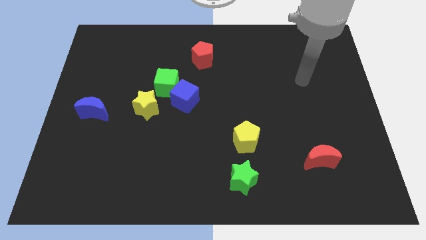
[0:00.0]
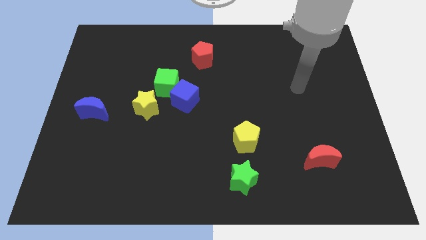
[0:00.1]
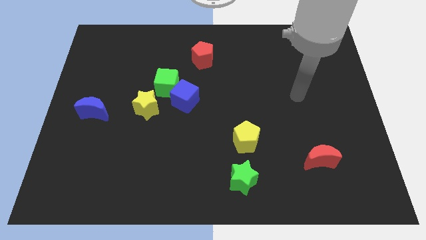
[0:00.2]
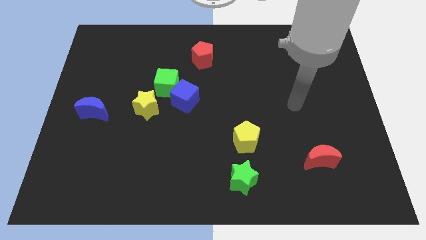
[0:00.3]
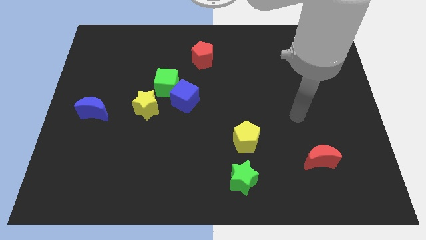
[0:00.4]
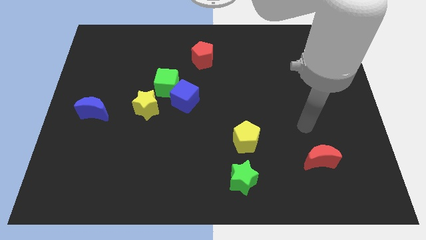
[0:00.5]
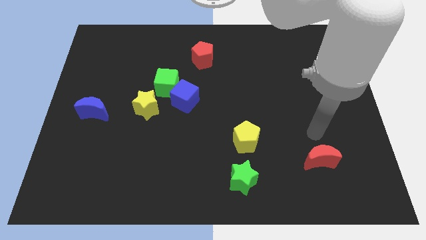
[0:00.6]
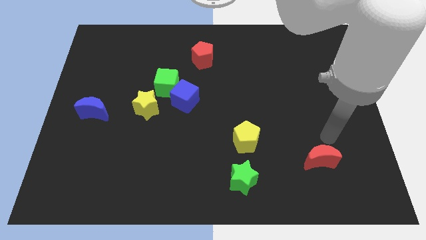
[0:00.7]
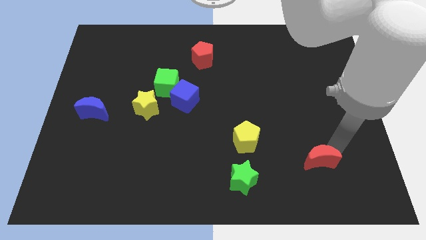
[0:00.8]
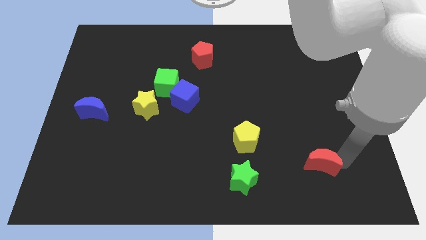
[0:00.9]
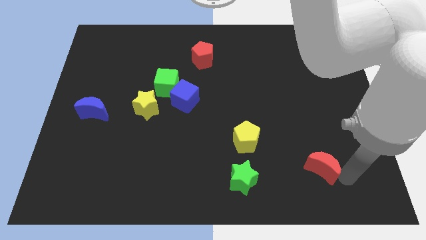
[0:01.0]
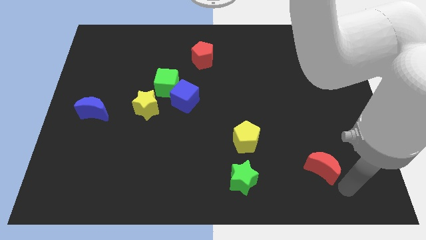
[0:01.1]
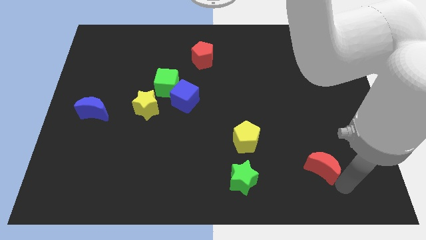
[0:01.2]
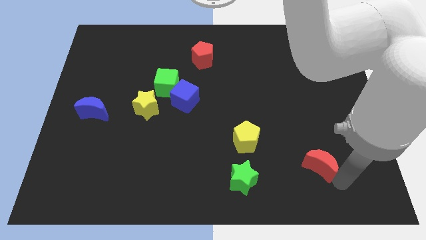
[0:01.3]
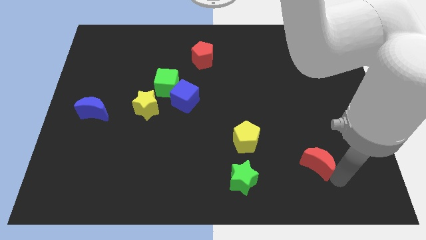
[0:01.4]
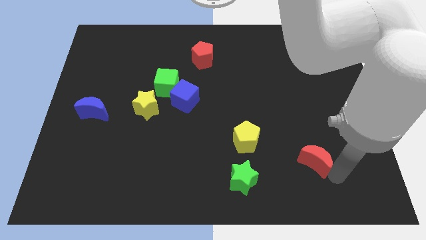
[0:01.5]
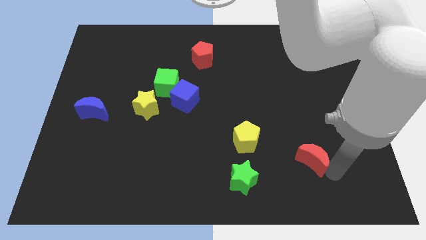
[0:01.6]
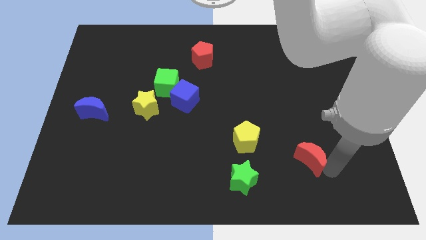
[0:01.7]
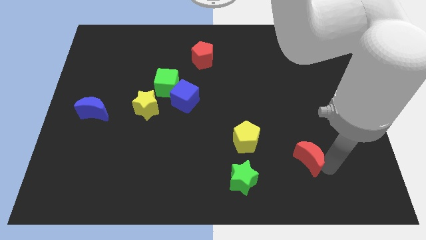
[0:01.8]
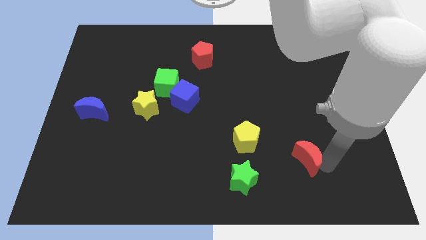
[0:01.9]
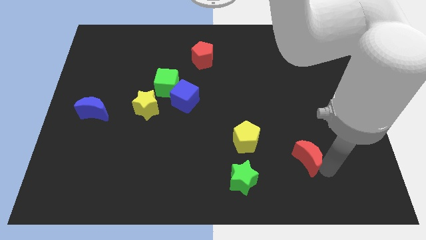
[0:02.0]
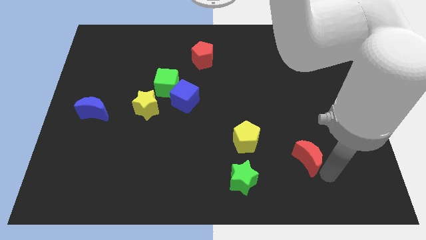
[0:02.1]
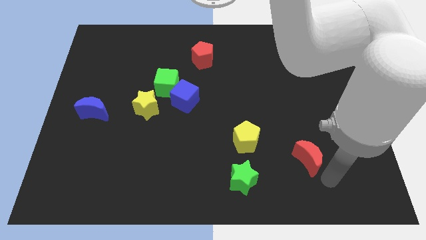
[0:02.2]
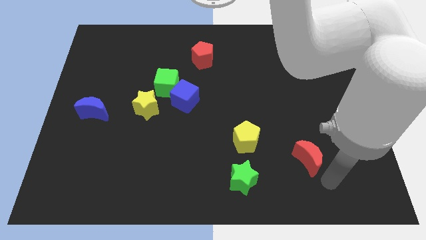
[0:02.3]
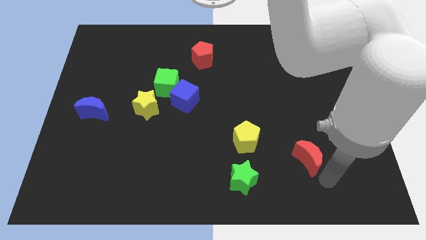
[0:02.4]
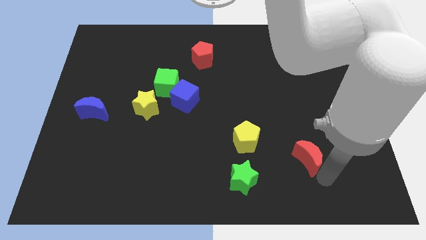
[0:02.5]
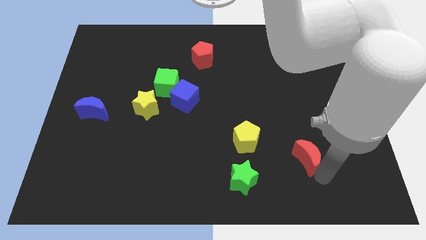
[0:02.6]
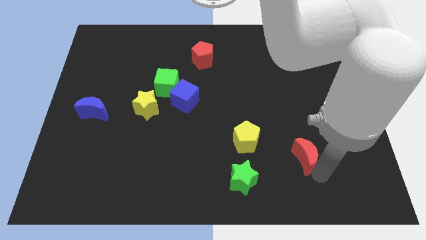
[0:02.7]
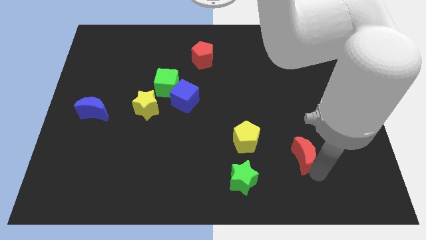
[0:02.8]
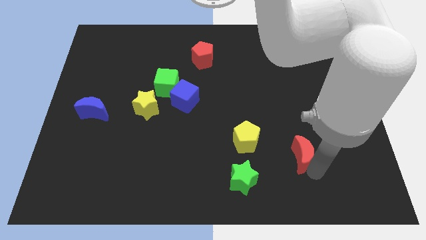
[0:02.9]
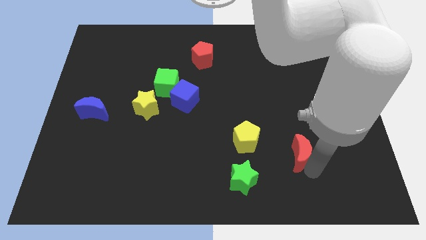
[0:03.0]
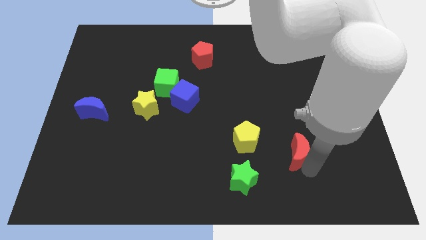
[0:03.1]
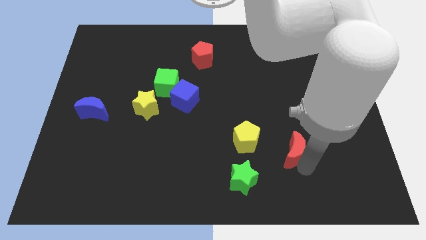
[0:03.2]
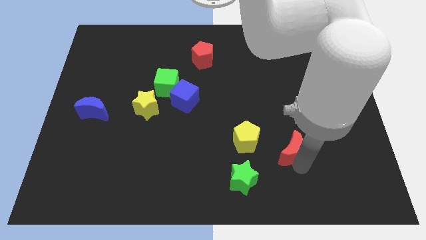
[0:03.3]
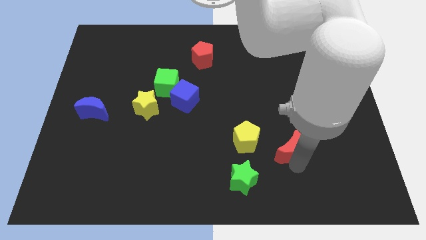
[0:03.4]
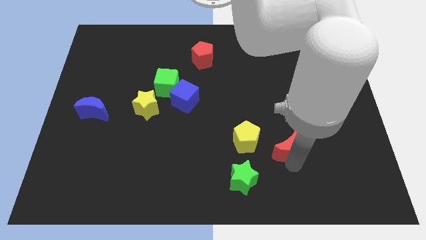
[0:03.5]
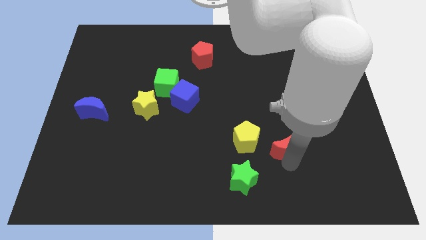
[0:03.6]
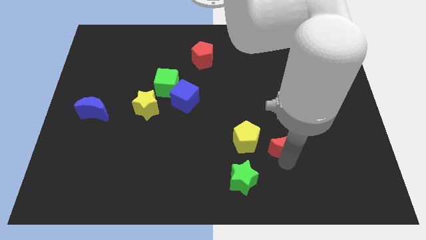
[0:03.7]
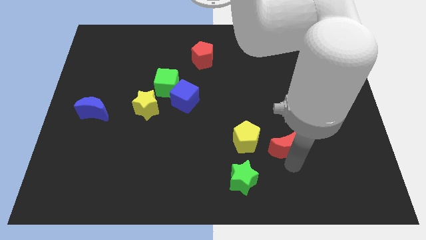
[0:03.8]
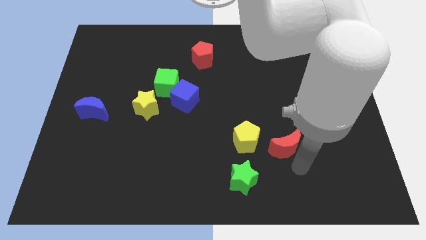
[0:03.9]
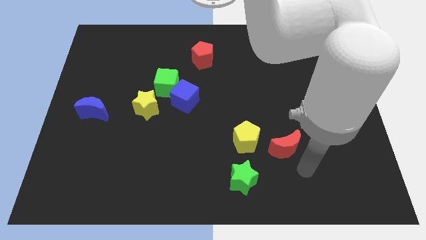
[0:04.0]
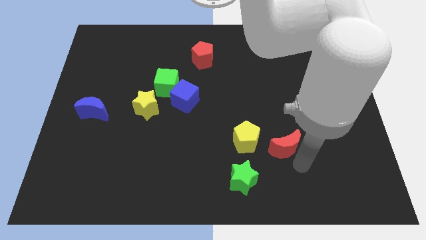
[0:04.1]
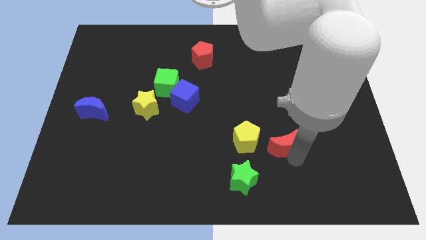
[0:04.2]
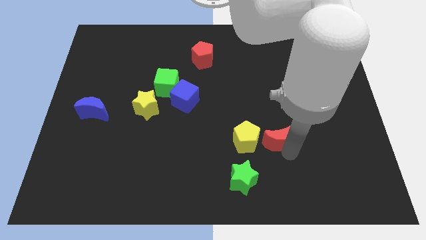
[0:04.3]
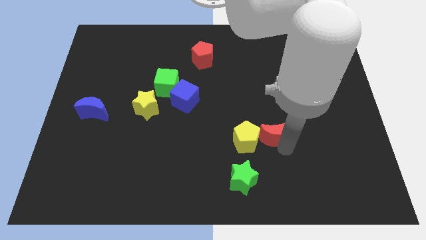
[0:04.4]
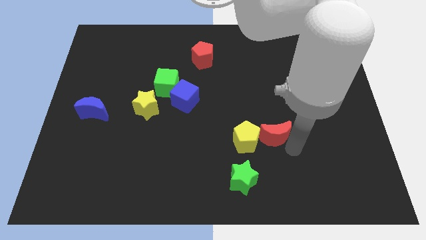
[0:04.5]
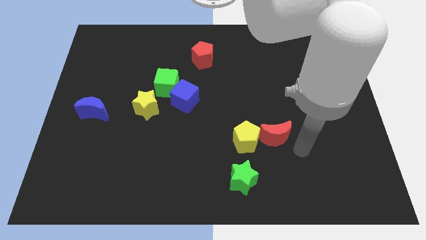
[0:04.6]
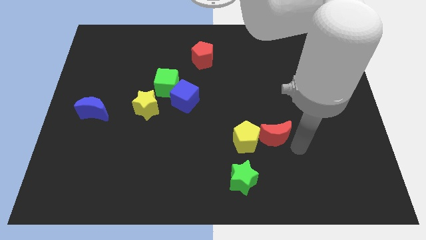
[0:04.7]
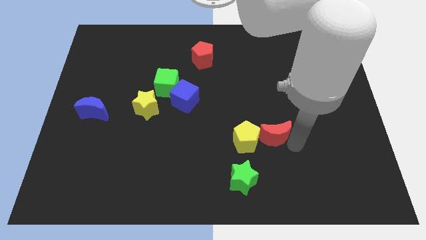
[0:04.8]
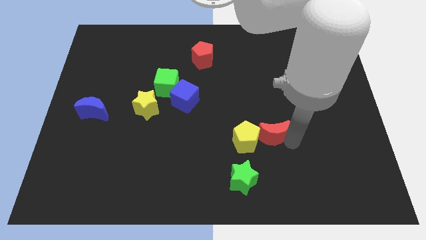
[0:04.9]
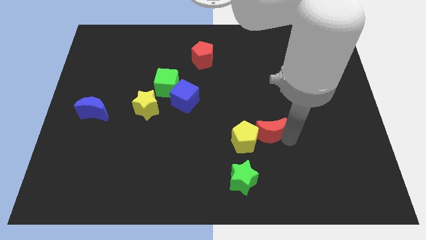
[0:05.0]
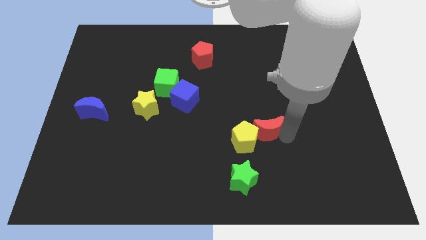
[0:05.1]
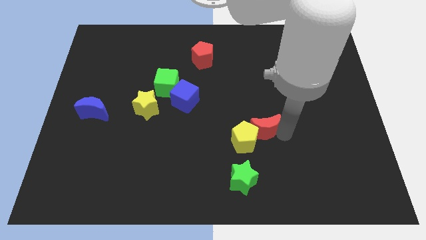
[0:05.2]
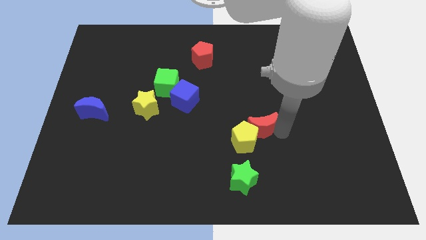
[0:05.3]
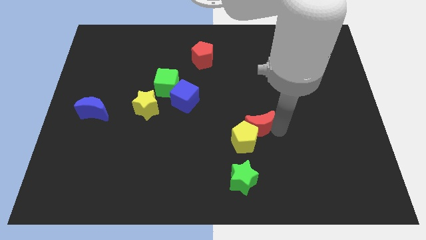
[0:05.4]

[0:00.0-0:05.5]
slide the red moon above the green star

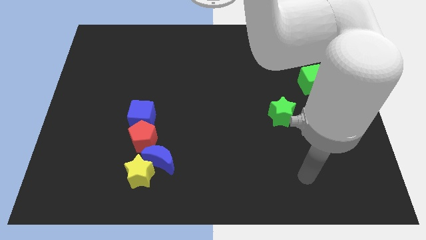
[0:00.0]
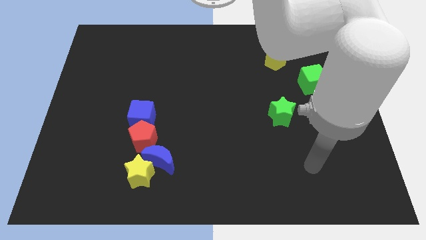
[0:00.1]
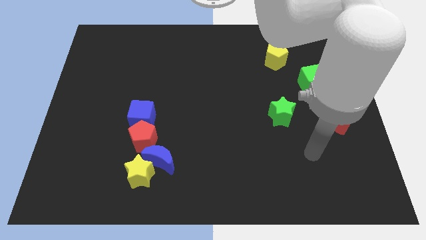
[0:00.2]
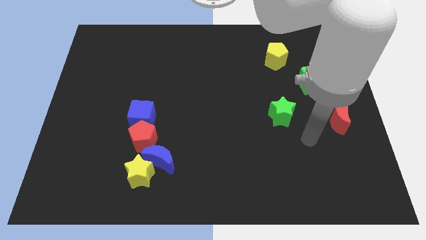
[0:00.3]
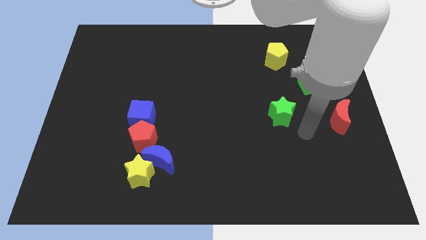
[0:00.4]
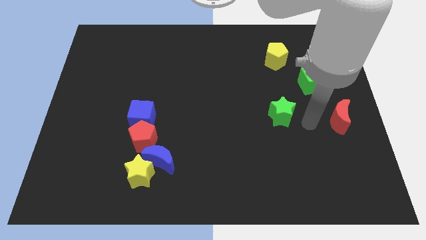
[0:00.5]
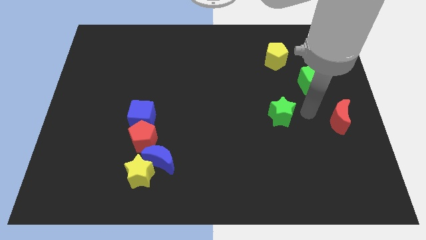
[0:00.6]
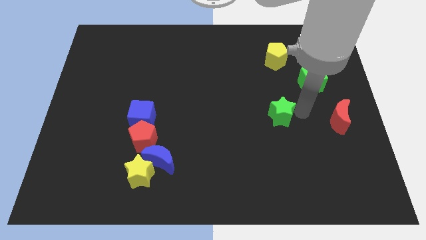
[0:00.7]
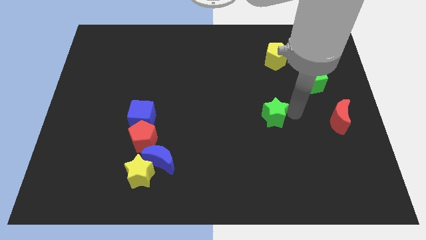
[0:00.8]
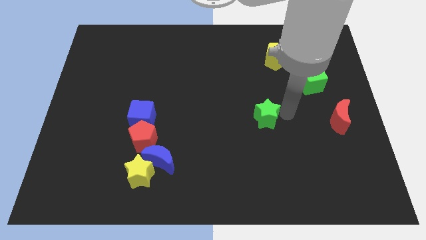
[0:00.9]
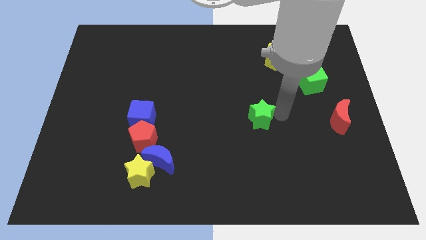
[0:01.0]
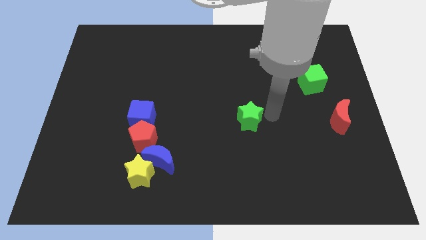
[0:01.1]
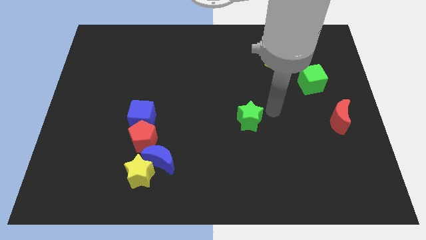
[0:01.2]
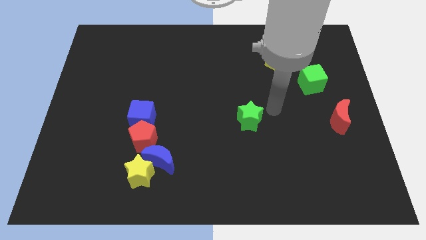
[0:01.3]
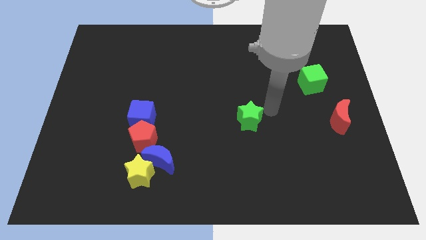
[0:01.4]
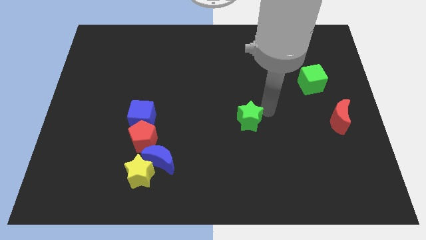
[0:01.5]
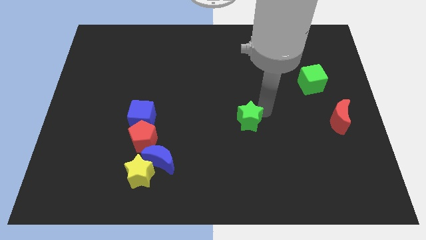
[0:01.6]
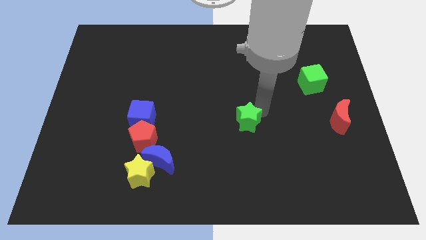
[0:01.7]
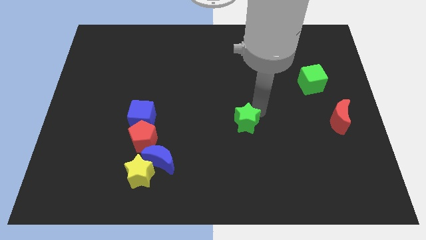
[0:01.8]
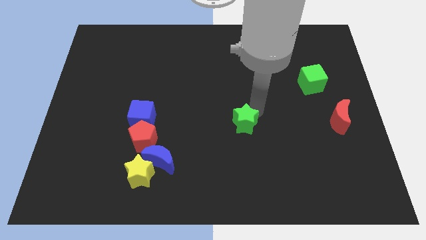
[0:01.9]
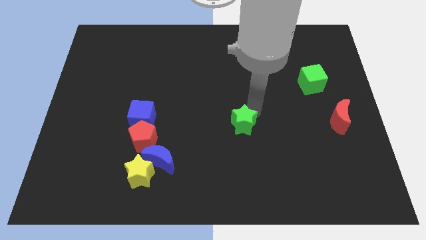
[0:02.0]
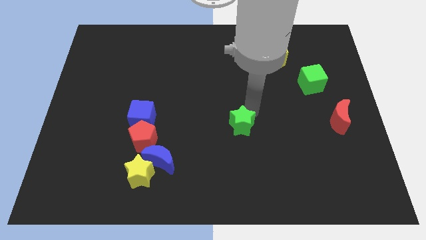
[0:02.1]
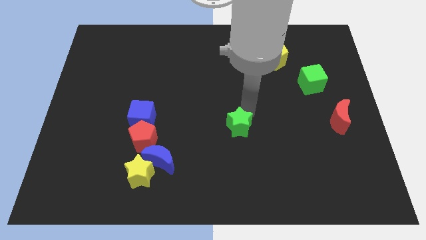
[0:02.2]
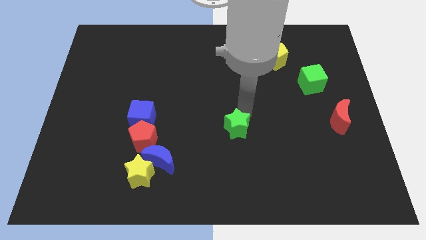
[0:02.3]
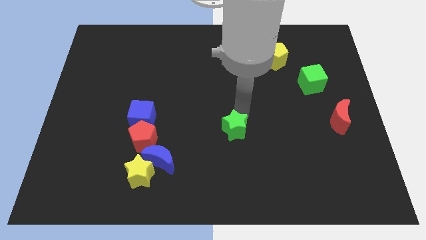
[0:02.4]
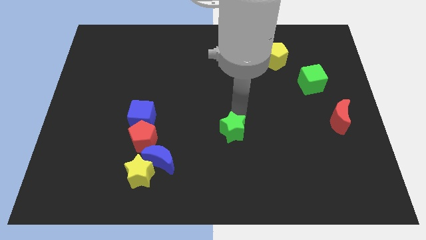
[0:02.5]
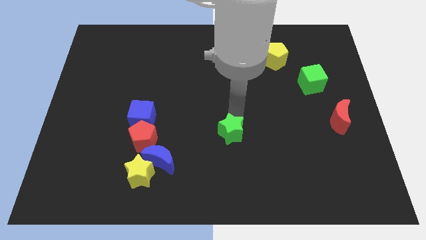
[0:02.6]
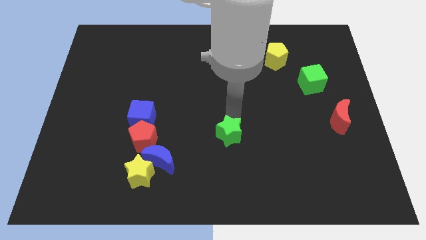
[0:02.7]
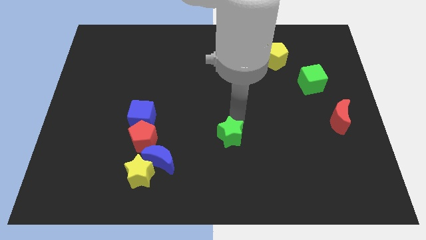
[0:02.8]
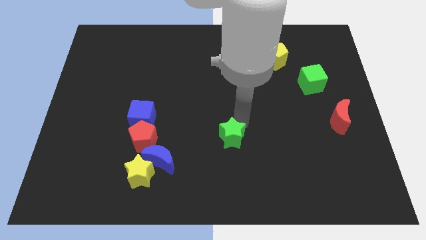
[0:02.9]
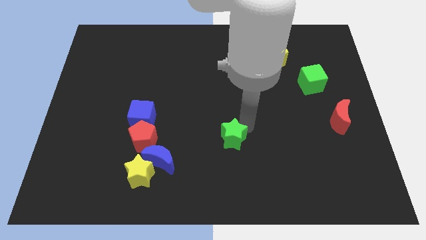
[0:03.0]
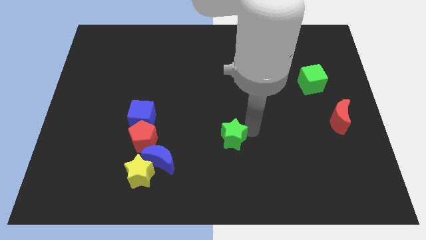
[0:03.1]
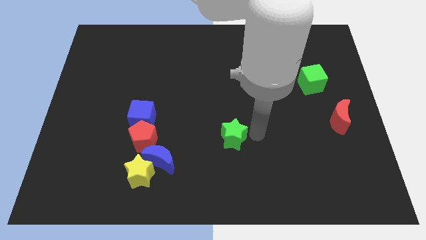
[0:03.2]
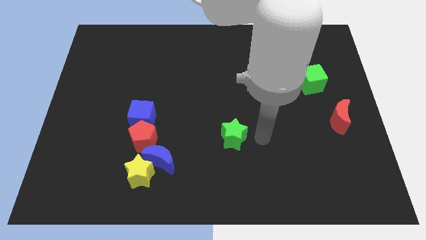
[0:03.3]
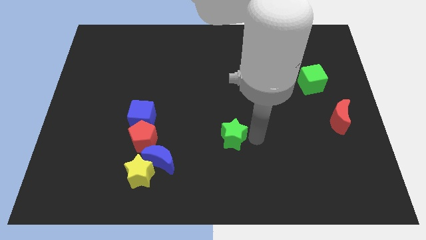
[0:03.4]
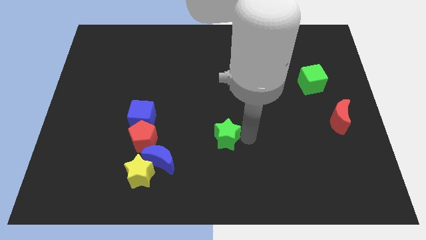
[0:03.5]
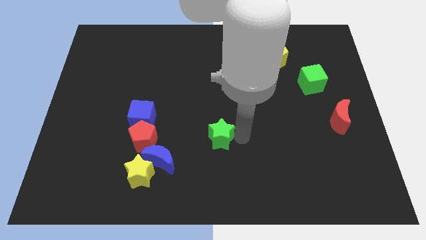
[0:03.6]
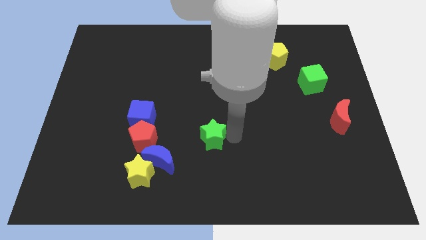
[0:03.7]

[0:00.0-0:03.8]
push the green star right of the red pentagon
